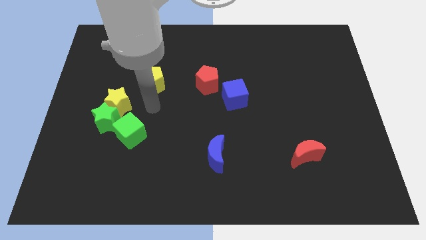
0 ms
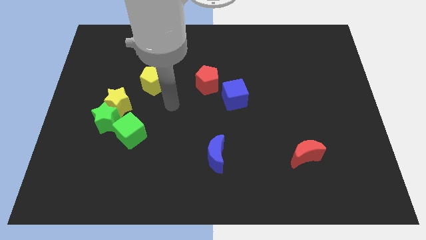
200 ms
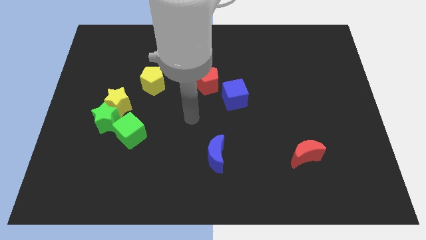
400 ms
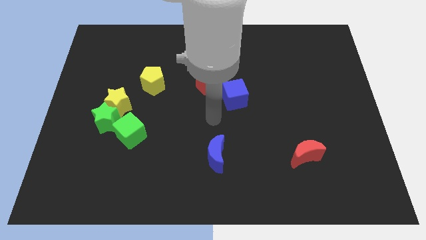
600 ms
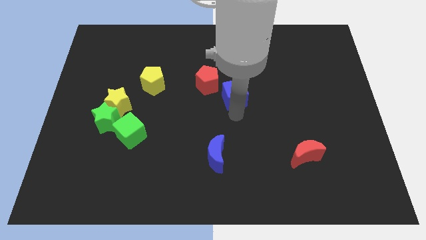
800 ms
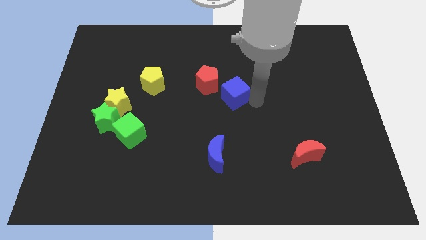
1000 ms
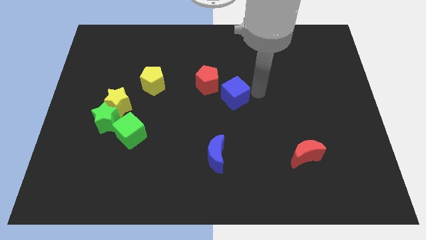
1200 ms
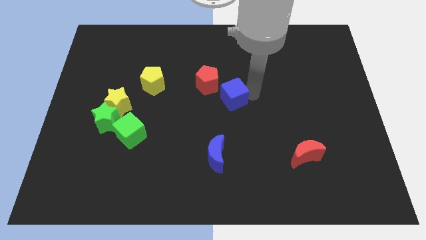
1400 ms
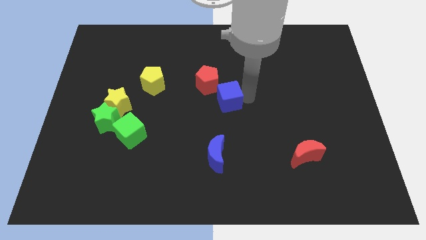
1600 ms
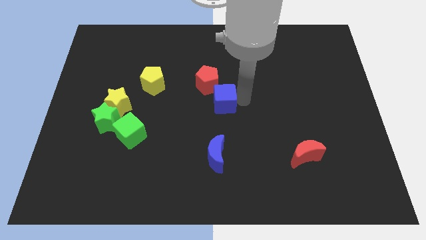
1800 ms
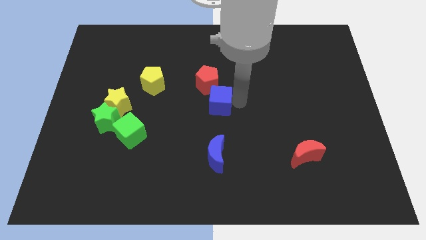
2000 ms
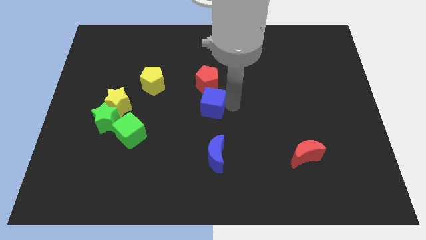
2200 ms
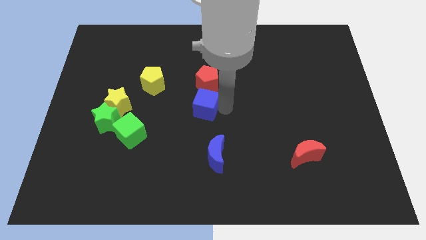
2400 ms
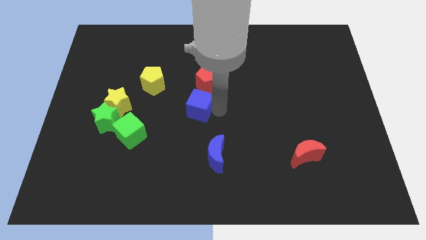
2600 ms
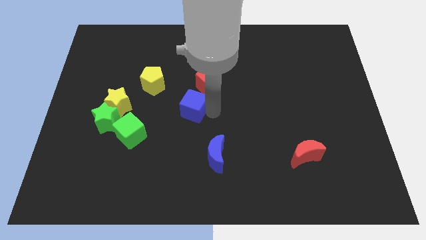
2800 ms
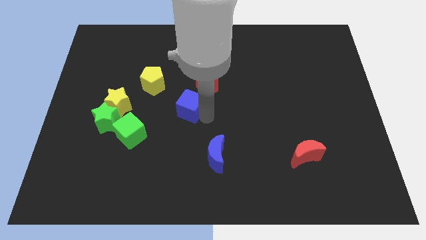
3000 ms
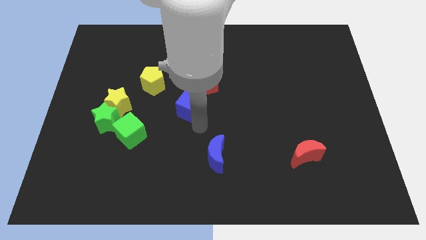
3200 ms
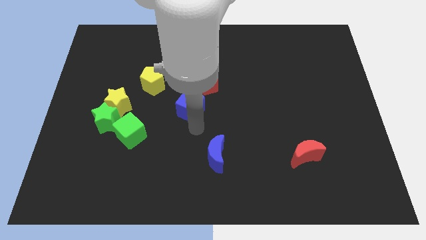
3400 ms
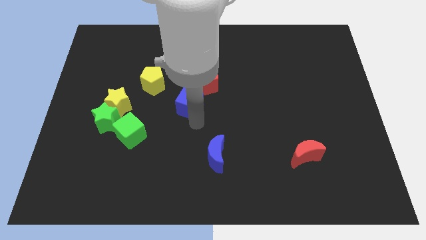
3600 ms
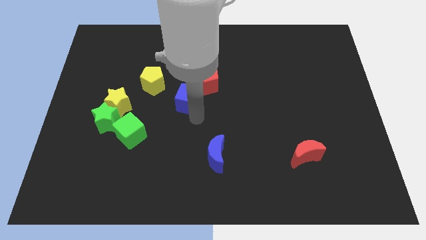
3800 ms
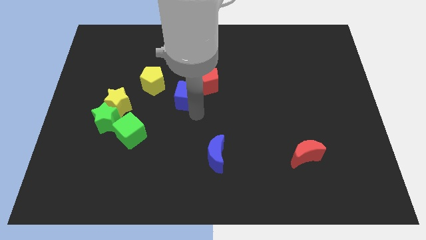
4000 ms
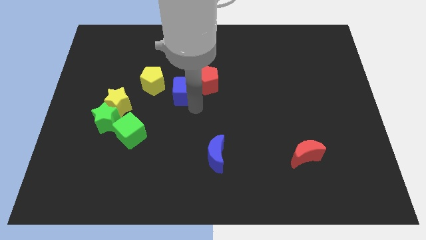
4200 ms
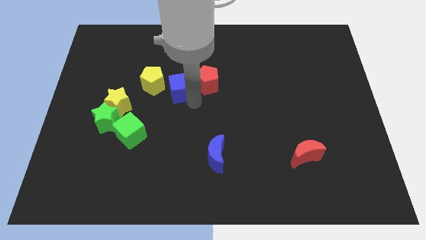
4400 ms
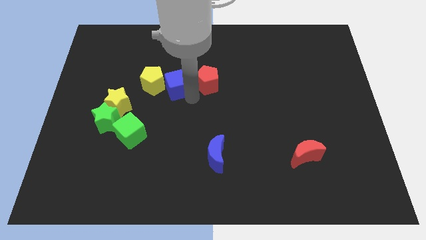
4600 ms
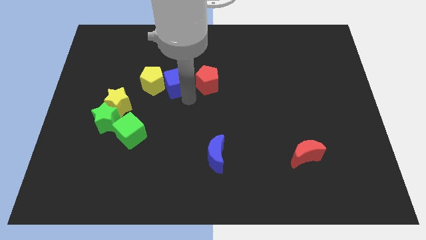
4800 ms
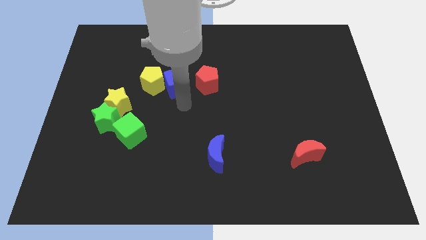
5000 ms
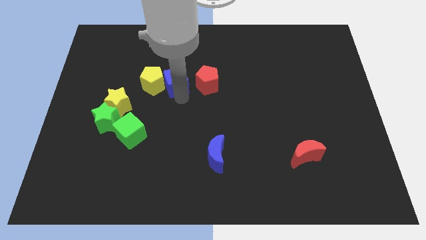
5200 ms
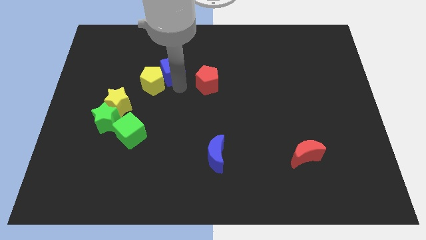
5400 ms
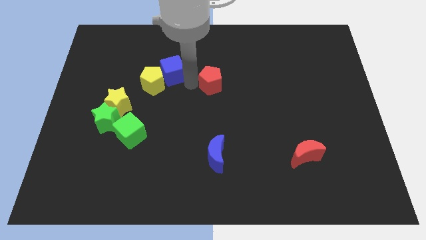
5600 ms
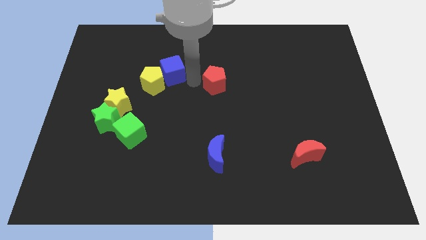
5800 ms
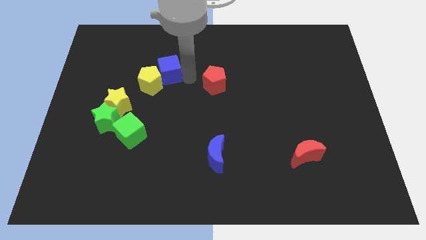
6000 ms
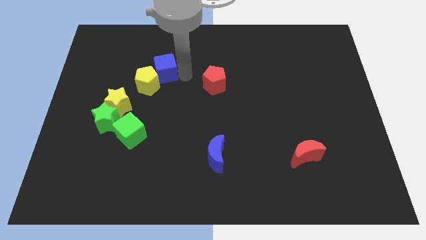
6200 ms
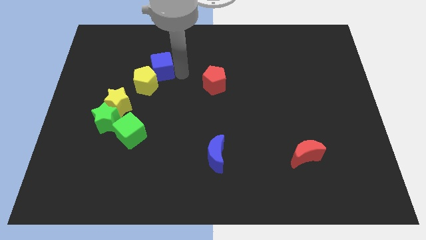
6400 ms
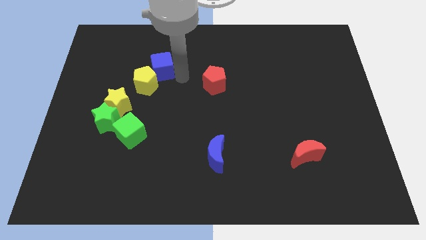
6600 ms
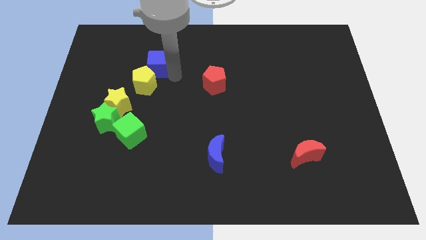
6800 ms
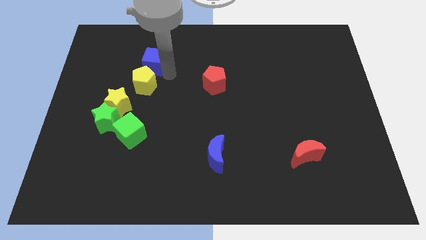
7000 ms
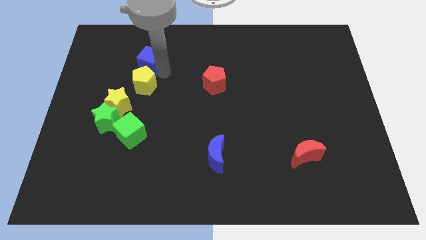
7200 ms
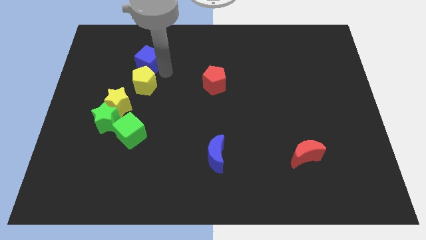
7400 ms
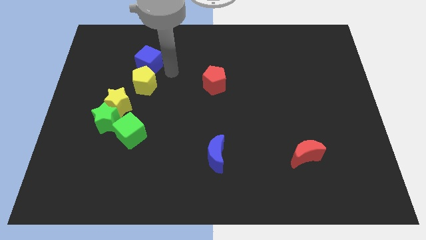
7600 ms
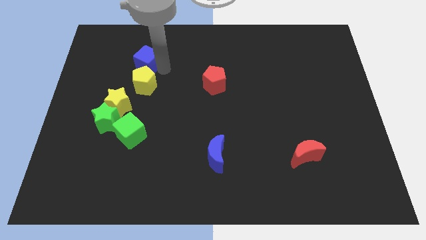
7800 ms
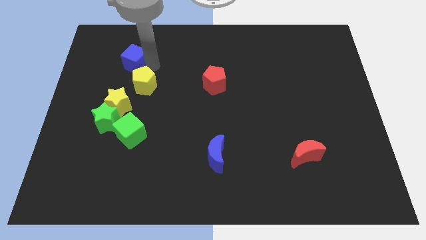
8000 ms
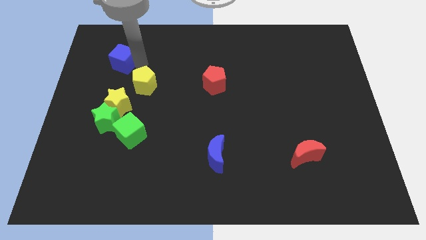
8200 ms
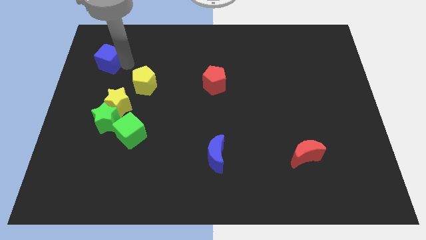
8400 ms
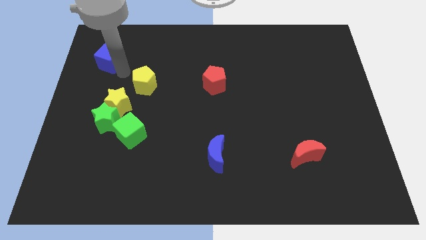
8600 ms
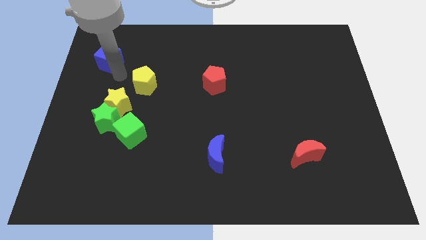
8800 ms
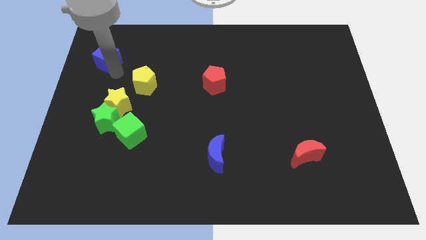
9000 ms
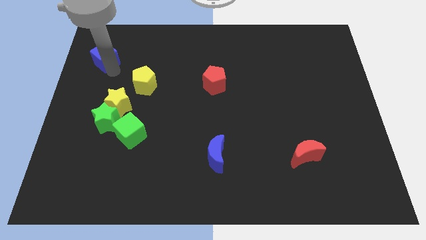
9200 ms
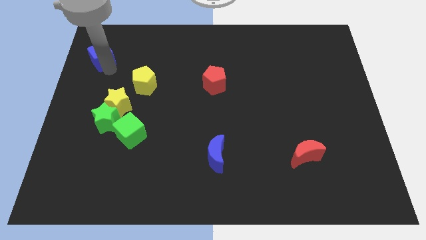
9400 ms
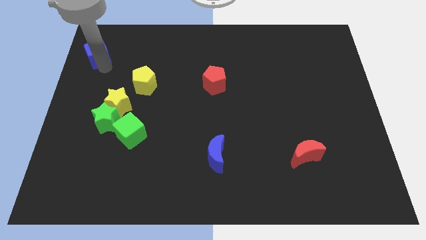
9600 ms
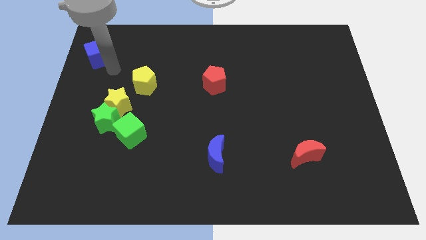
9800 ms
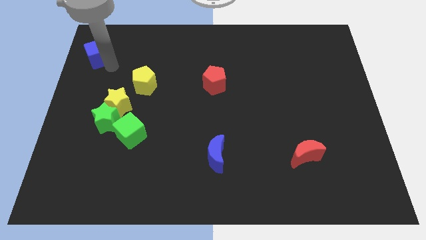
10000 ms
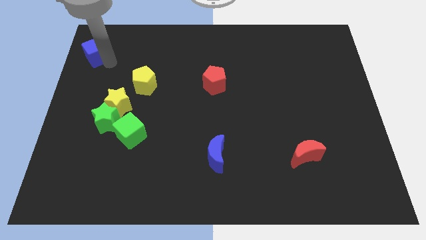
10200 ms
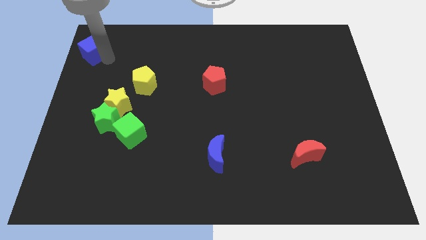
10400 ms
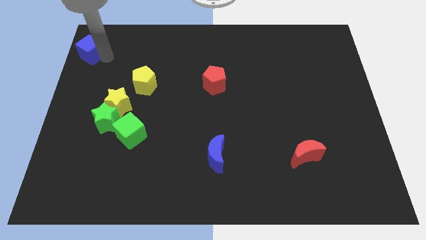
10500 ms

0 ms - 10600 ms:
move the blue cube to the upper left corner
